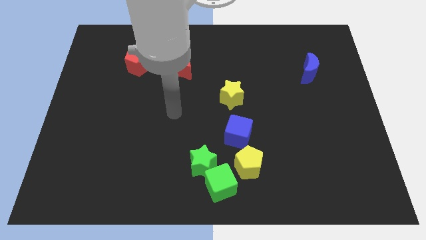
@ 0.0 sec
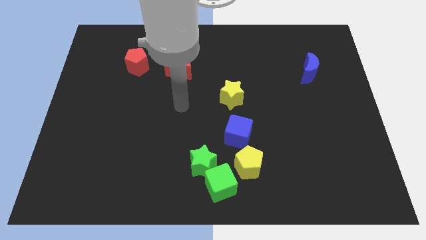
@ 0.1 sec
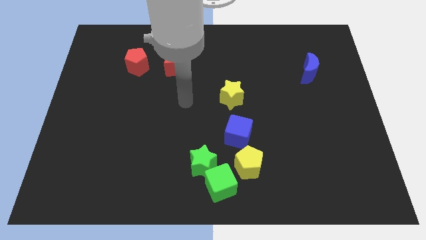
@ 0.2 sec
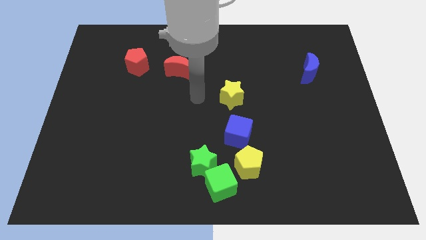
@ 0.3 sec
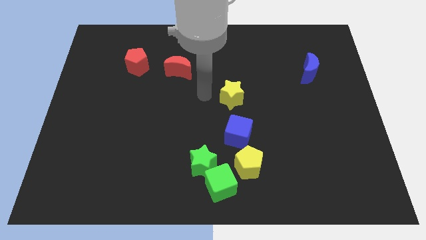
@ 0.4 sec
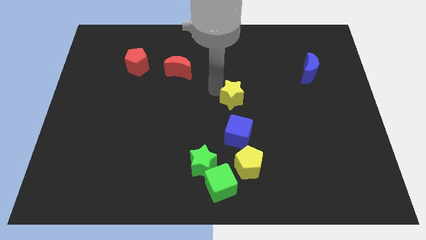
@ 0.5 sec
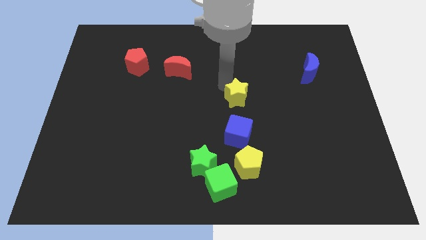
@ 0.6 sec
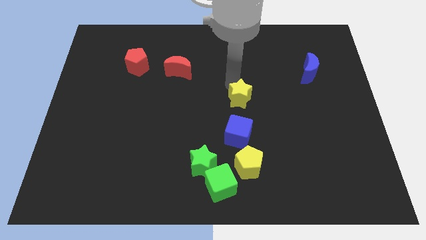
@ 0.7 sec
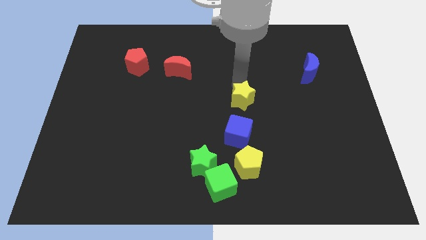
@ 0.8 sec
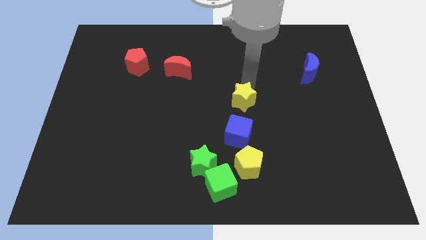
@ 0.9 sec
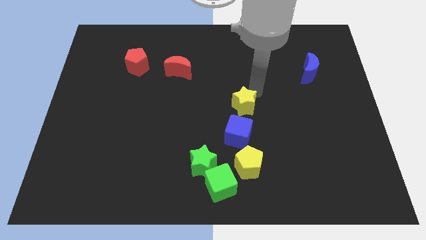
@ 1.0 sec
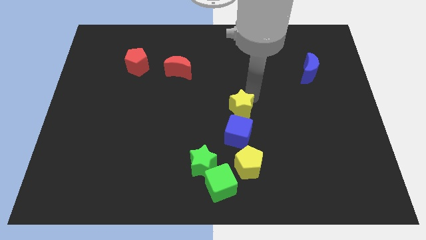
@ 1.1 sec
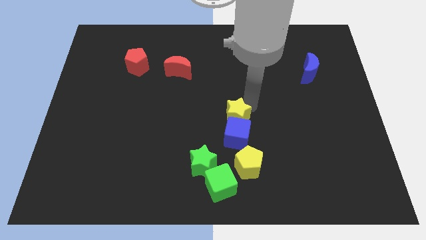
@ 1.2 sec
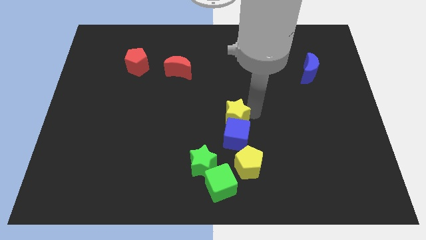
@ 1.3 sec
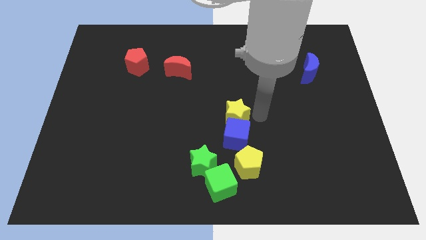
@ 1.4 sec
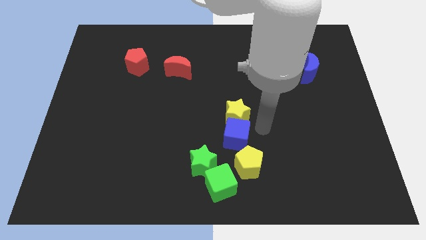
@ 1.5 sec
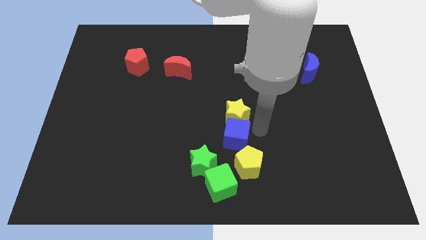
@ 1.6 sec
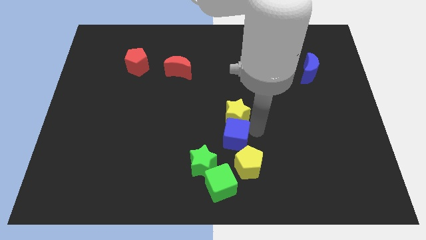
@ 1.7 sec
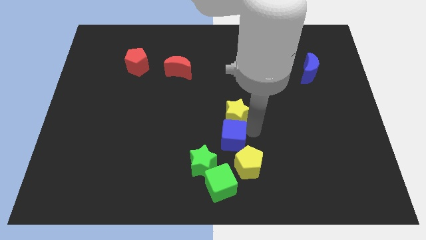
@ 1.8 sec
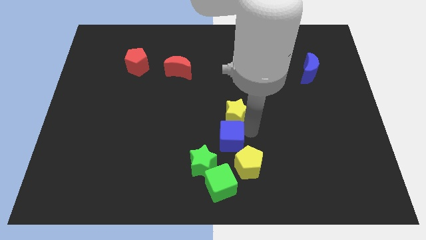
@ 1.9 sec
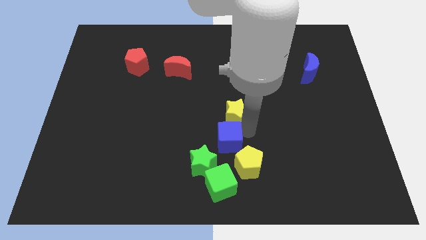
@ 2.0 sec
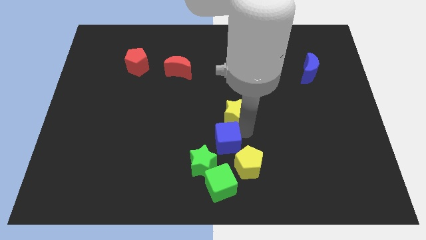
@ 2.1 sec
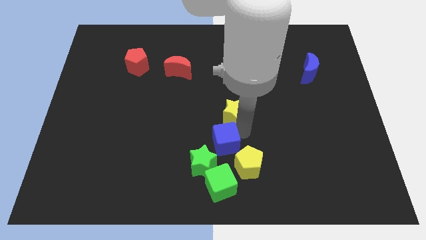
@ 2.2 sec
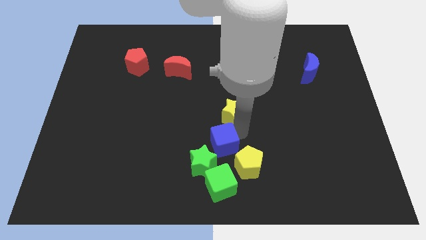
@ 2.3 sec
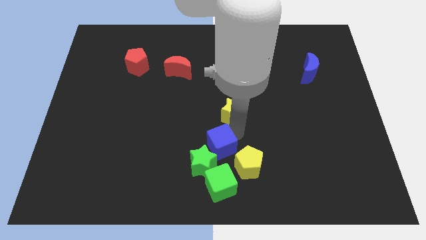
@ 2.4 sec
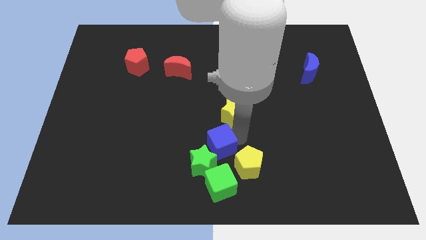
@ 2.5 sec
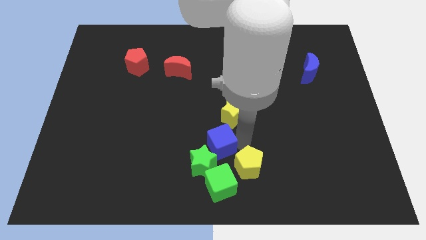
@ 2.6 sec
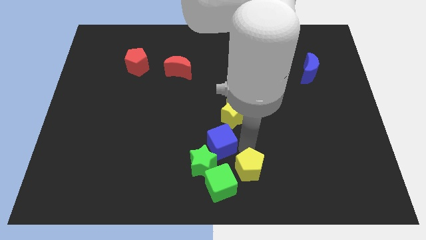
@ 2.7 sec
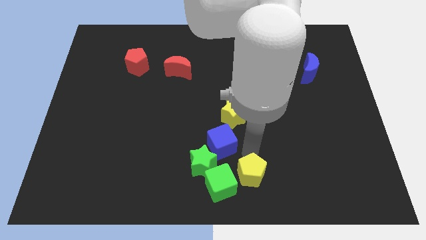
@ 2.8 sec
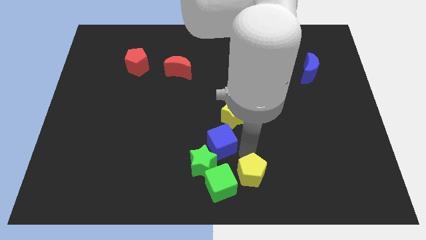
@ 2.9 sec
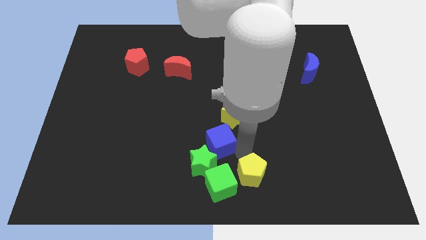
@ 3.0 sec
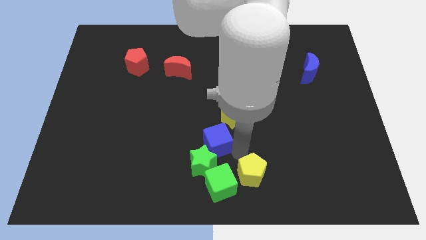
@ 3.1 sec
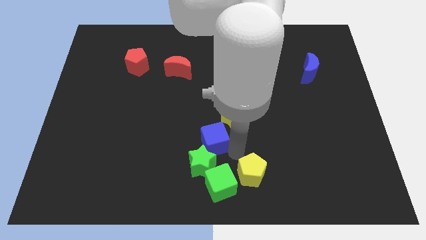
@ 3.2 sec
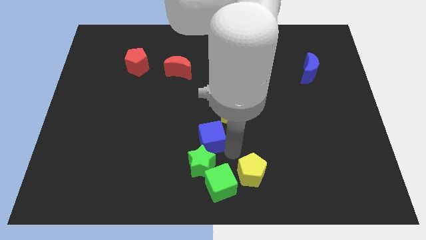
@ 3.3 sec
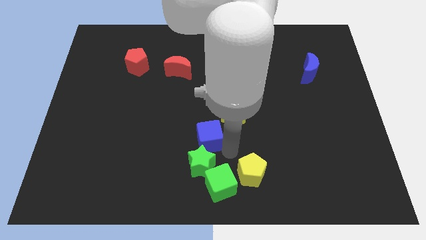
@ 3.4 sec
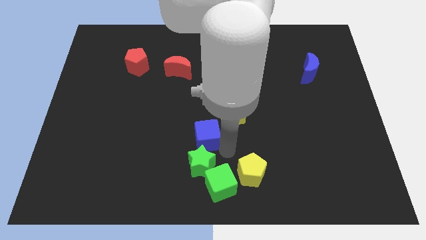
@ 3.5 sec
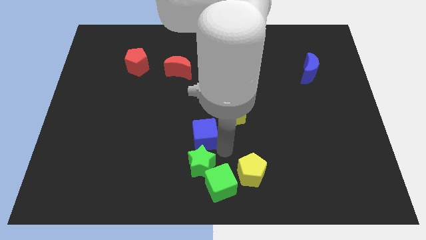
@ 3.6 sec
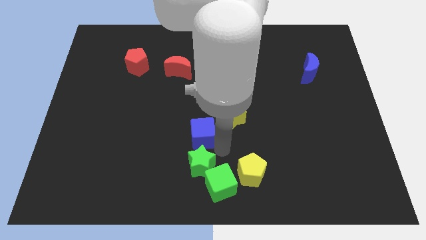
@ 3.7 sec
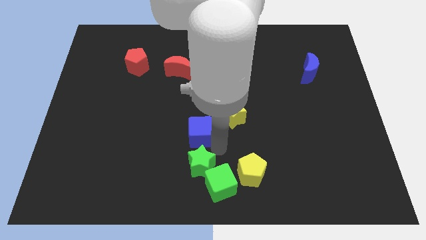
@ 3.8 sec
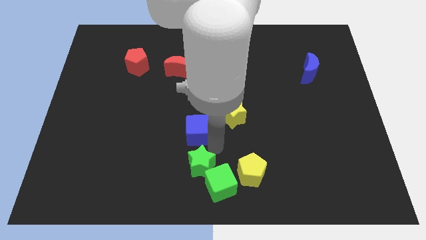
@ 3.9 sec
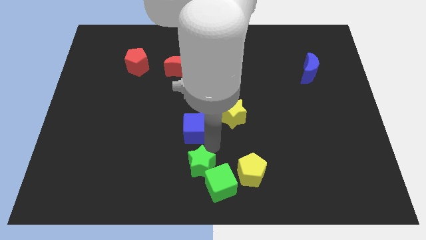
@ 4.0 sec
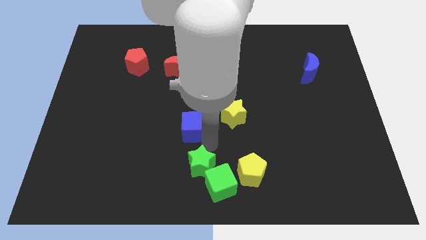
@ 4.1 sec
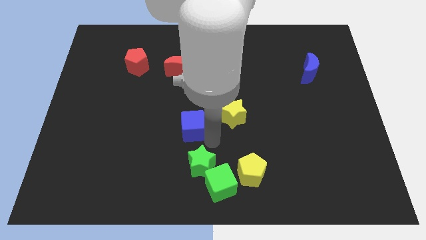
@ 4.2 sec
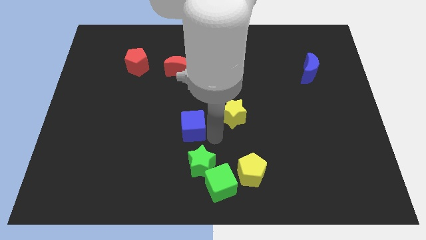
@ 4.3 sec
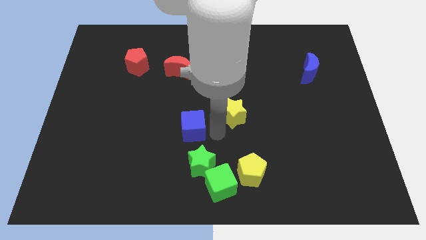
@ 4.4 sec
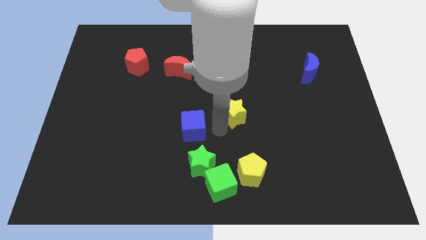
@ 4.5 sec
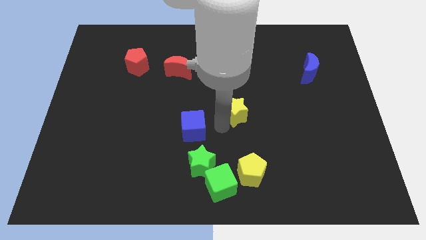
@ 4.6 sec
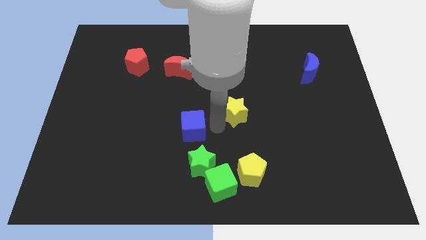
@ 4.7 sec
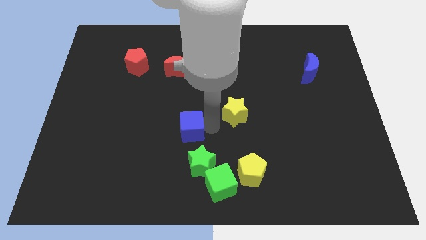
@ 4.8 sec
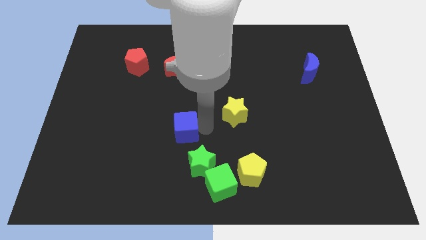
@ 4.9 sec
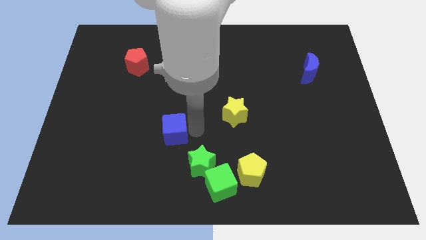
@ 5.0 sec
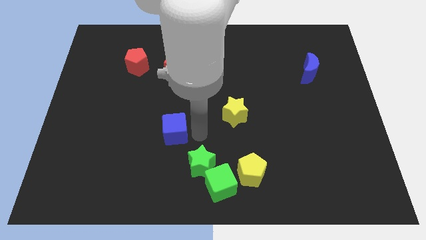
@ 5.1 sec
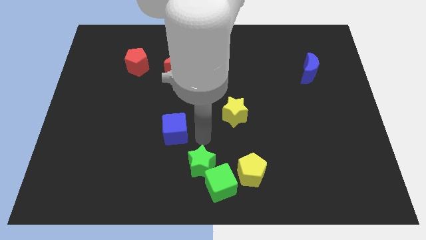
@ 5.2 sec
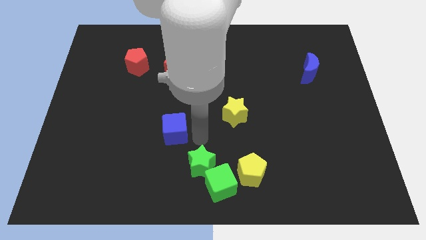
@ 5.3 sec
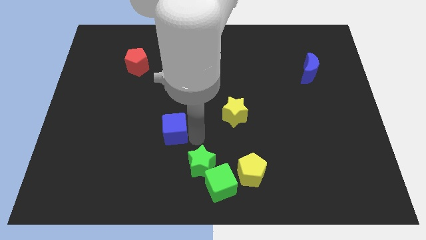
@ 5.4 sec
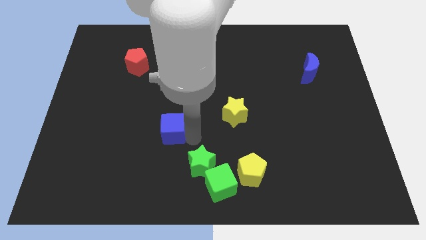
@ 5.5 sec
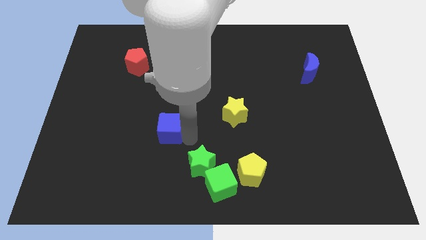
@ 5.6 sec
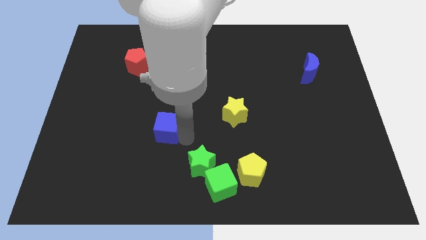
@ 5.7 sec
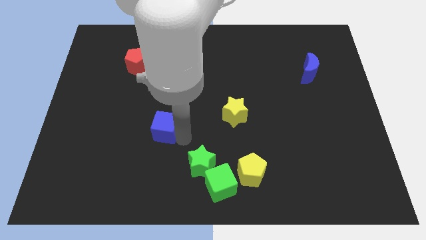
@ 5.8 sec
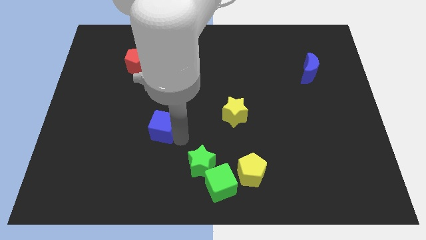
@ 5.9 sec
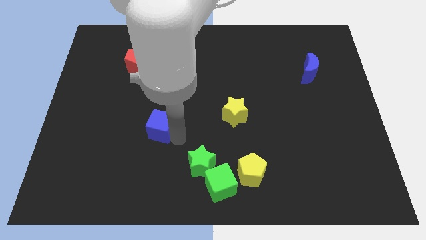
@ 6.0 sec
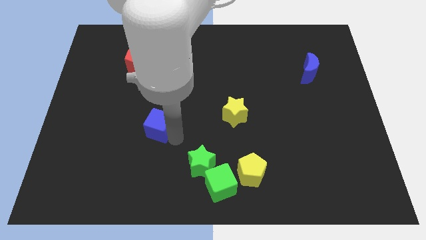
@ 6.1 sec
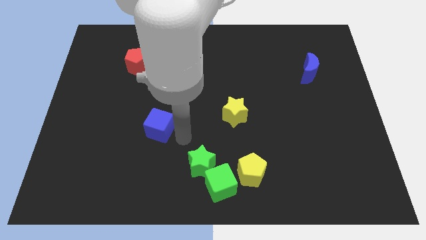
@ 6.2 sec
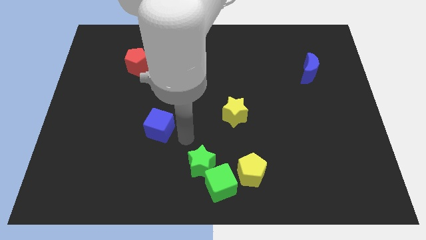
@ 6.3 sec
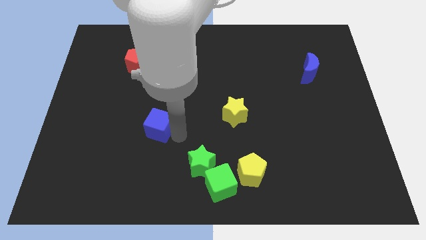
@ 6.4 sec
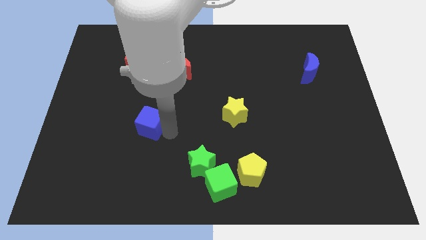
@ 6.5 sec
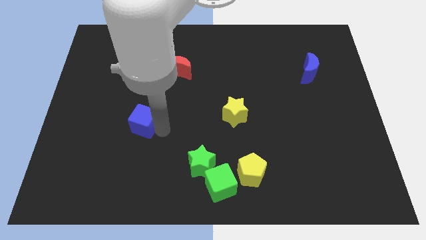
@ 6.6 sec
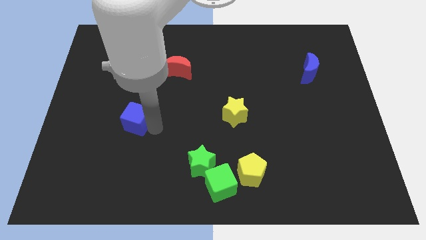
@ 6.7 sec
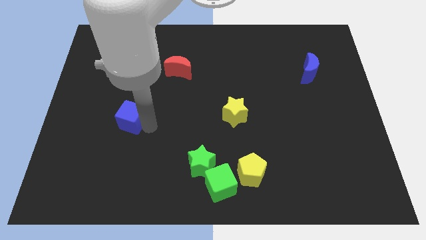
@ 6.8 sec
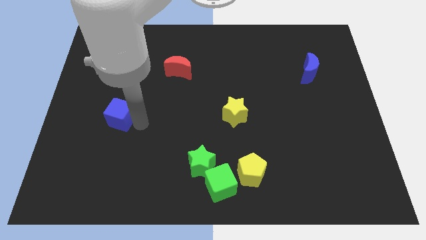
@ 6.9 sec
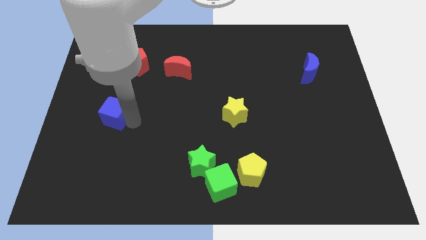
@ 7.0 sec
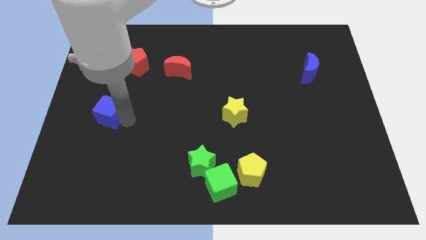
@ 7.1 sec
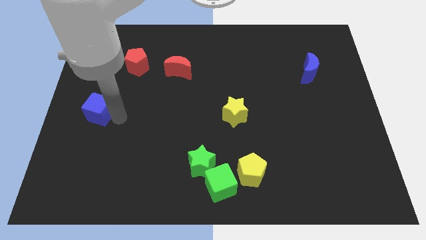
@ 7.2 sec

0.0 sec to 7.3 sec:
slide the blue cube to the left side of the board
